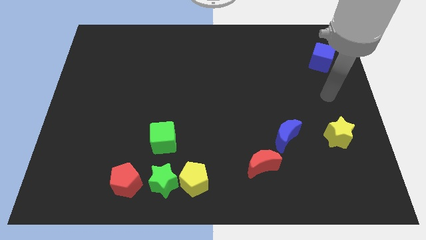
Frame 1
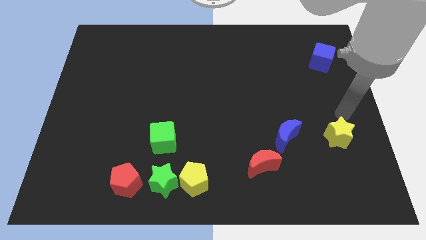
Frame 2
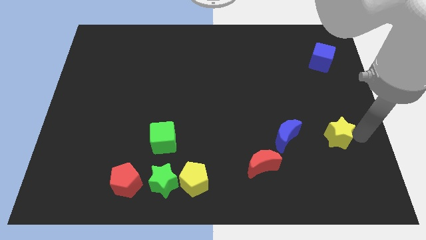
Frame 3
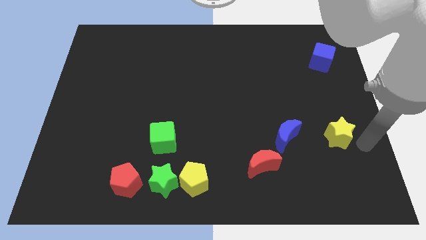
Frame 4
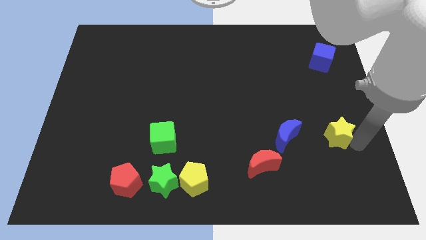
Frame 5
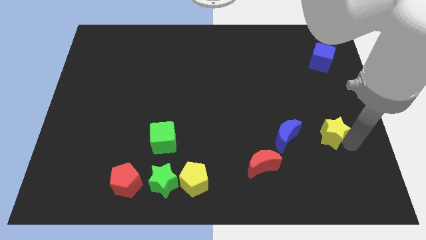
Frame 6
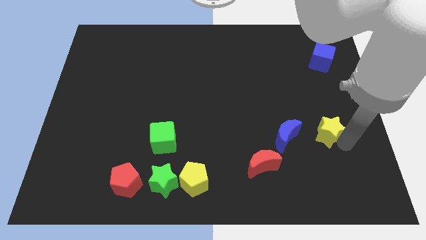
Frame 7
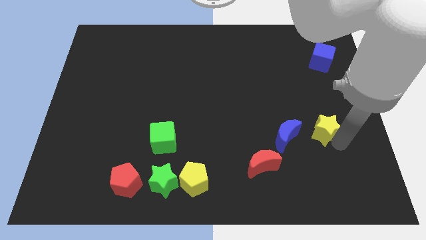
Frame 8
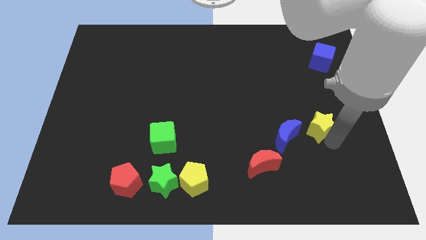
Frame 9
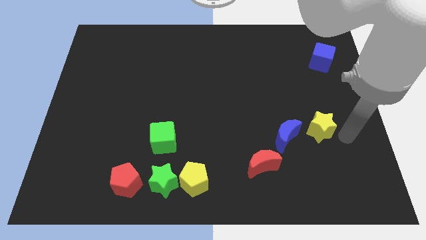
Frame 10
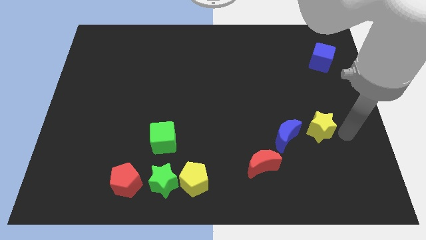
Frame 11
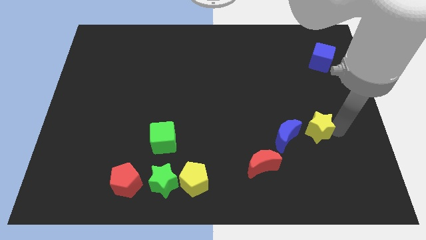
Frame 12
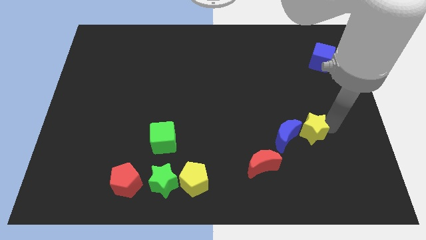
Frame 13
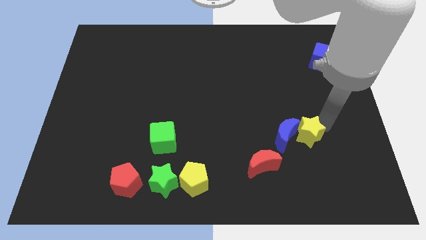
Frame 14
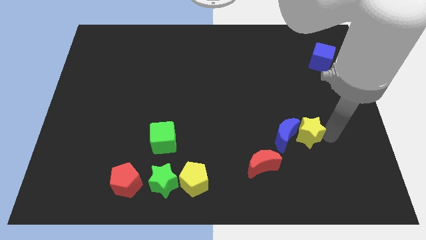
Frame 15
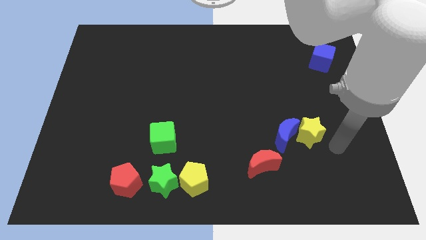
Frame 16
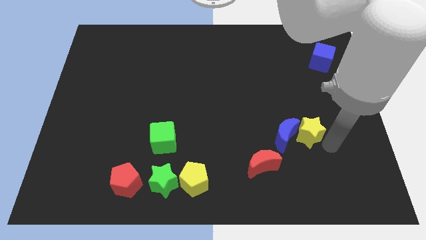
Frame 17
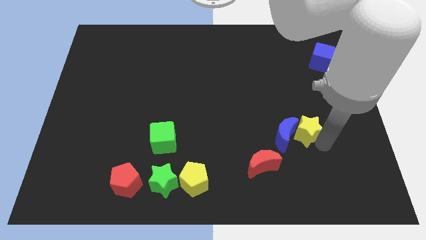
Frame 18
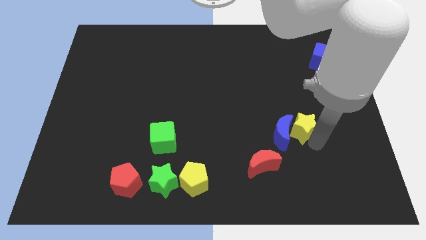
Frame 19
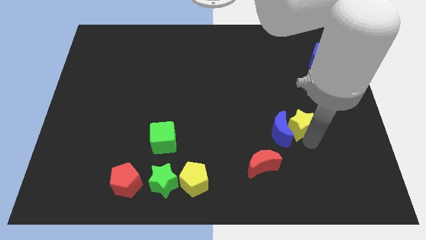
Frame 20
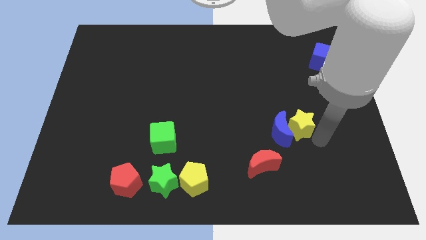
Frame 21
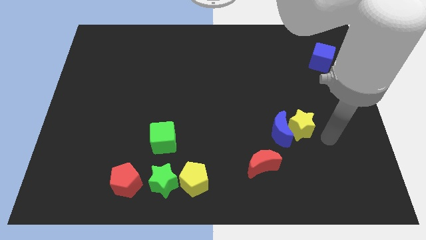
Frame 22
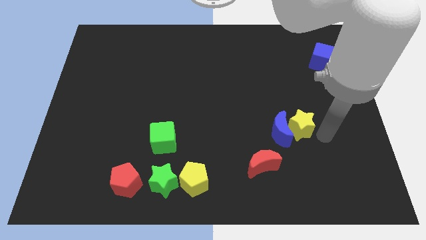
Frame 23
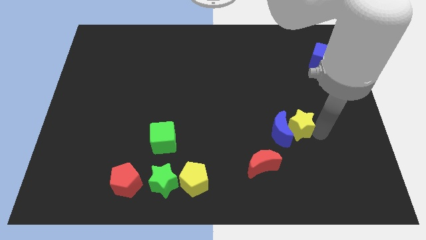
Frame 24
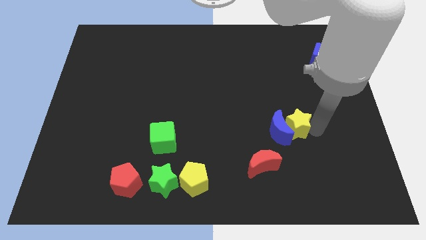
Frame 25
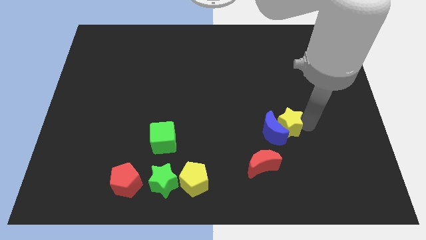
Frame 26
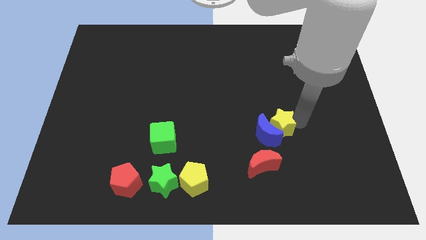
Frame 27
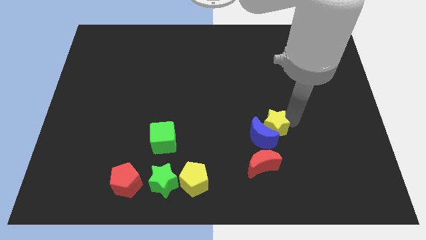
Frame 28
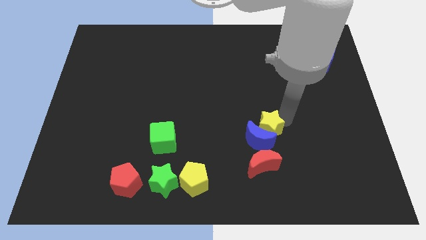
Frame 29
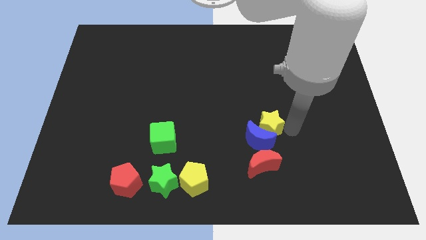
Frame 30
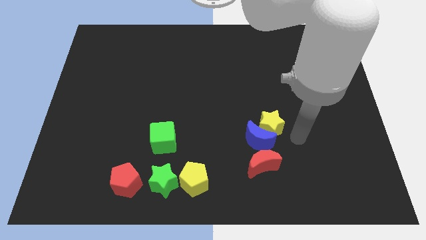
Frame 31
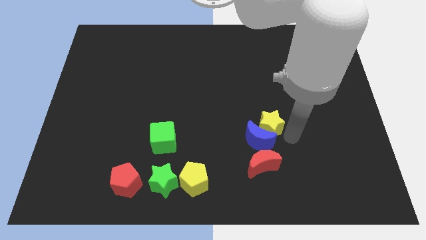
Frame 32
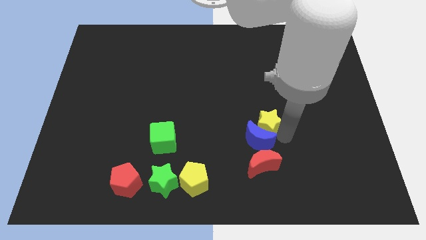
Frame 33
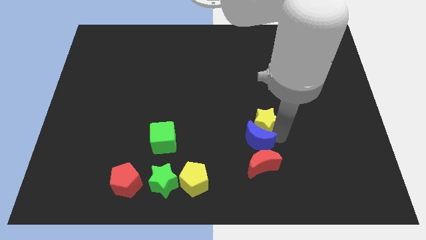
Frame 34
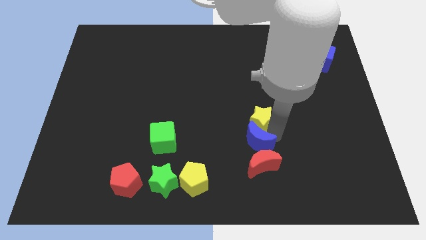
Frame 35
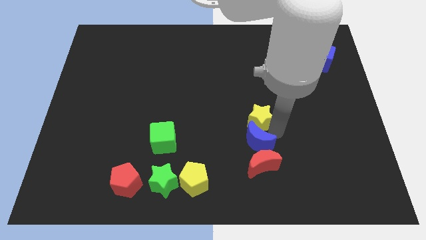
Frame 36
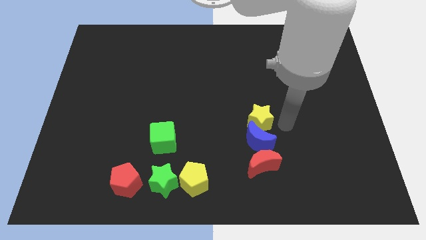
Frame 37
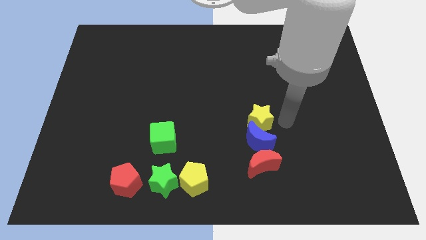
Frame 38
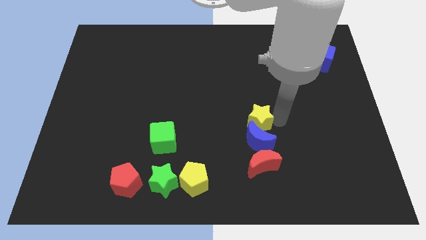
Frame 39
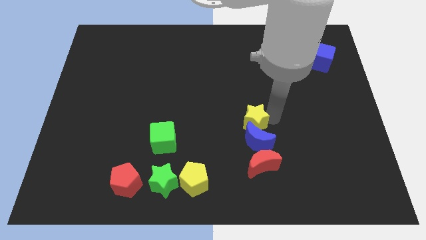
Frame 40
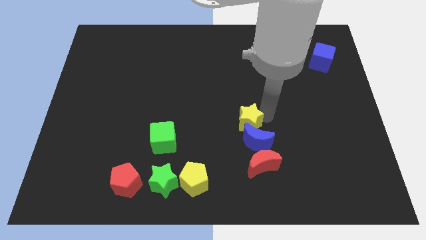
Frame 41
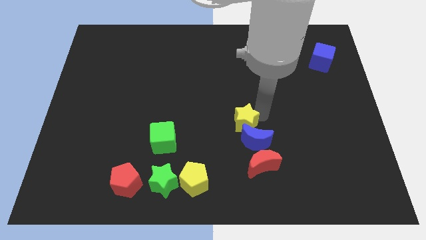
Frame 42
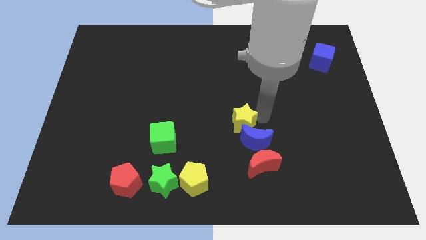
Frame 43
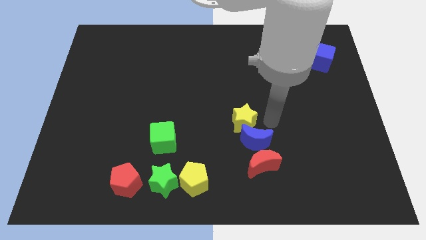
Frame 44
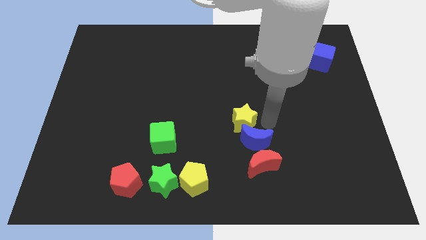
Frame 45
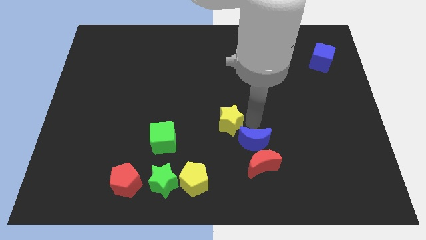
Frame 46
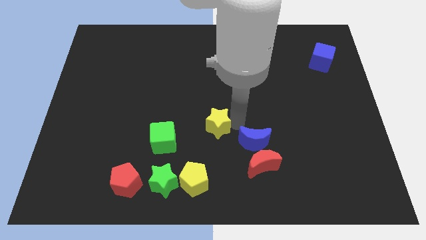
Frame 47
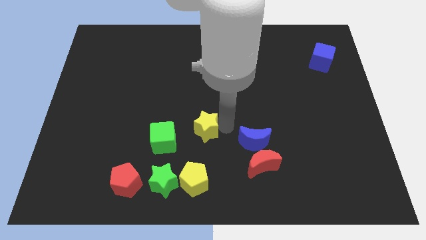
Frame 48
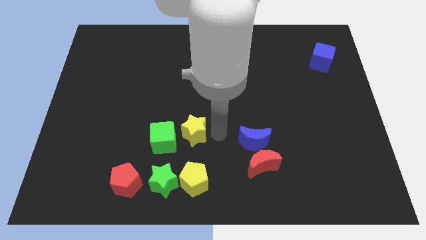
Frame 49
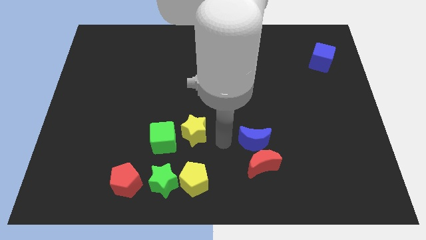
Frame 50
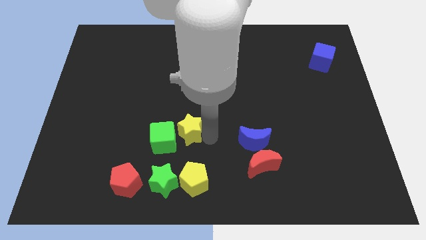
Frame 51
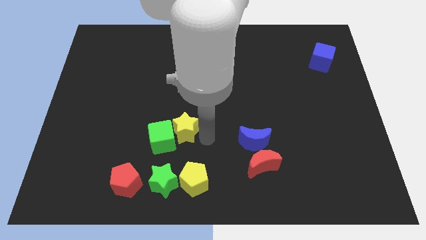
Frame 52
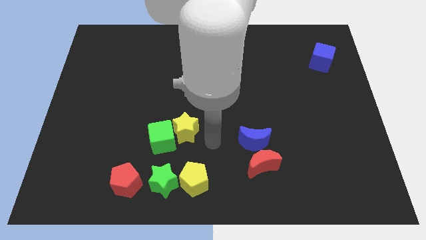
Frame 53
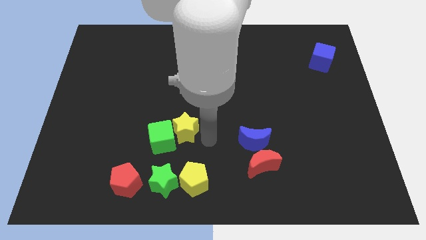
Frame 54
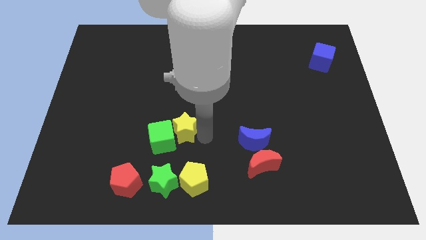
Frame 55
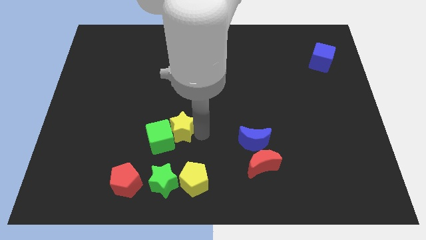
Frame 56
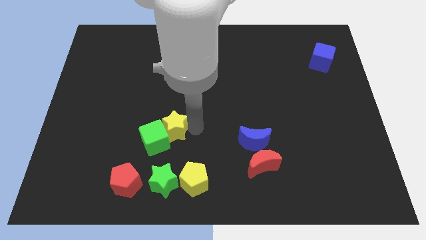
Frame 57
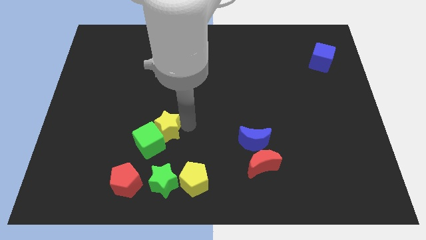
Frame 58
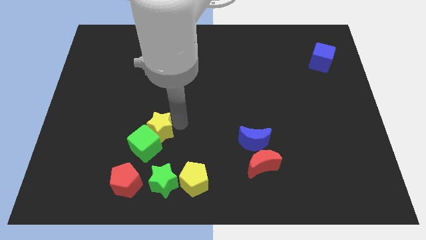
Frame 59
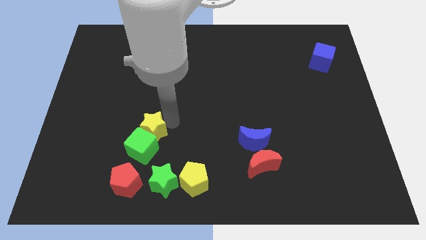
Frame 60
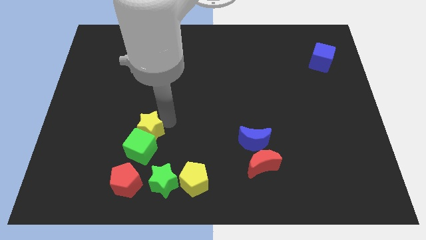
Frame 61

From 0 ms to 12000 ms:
slide the yellow star to the top left of the green cube

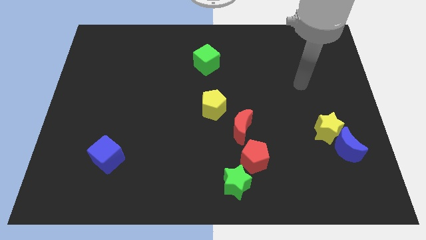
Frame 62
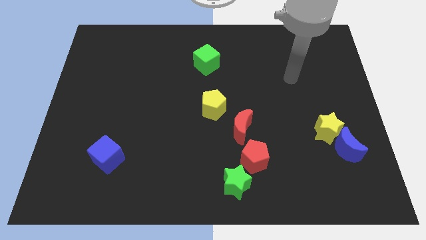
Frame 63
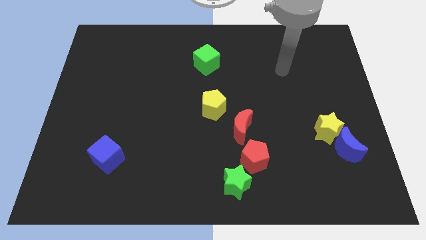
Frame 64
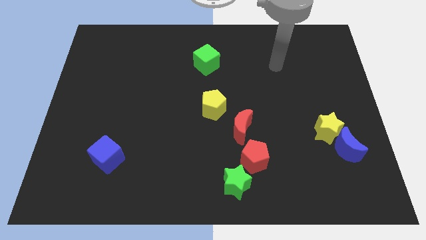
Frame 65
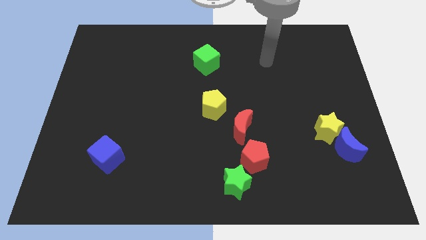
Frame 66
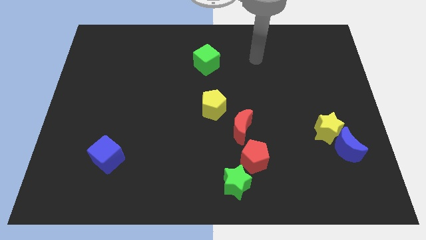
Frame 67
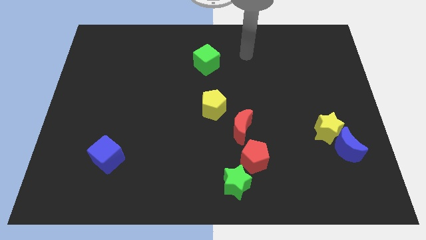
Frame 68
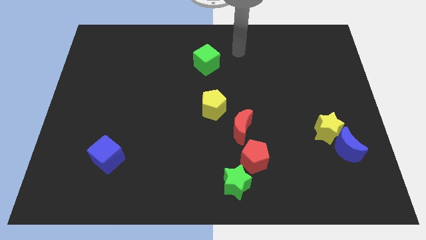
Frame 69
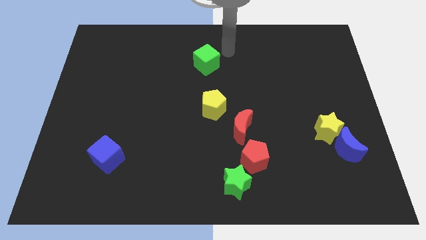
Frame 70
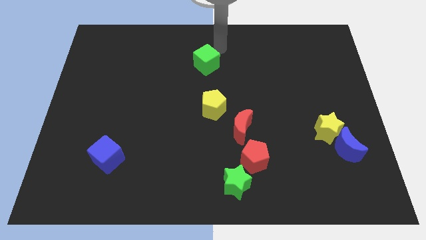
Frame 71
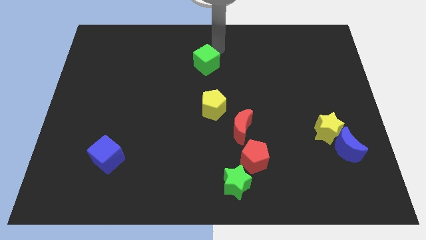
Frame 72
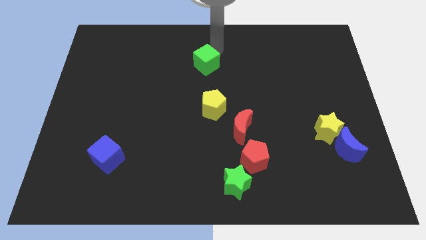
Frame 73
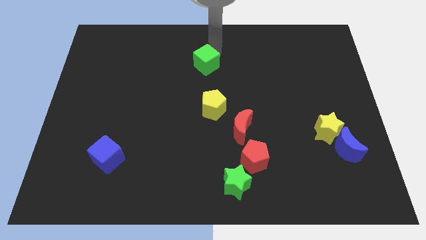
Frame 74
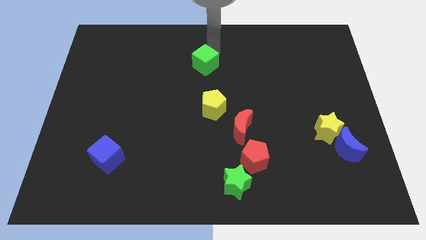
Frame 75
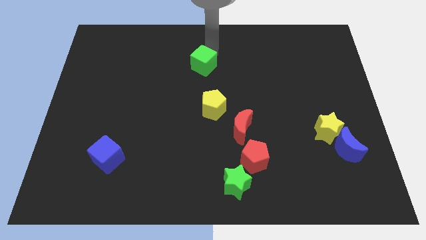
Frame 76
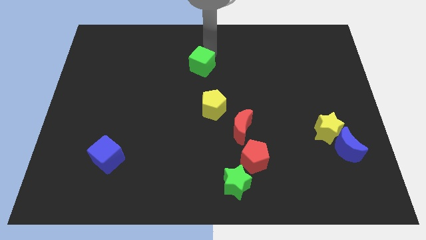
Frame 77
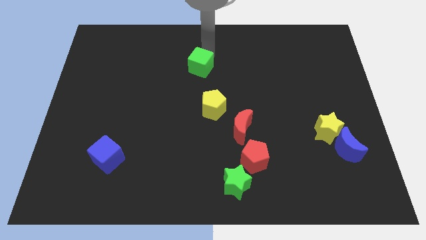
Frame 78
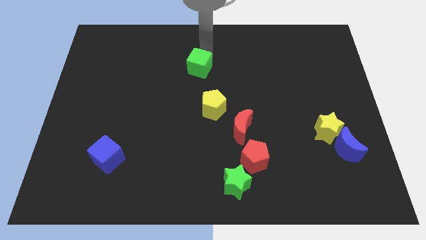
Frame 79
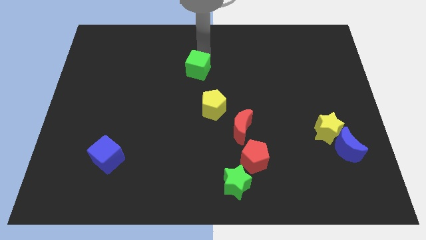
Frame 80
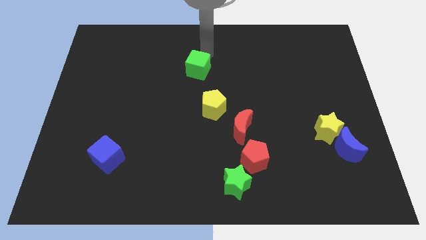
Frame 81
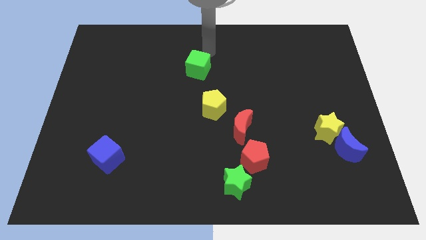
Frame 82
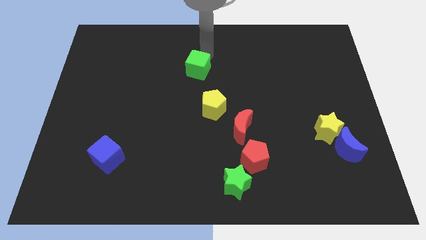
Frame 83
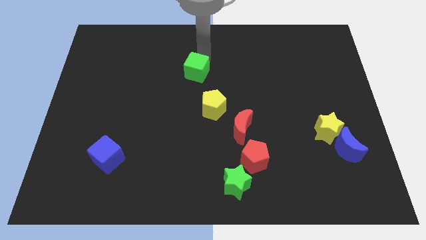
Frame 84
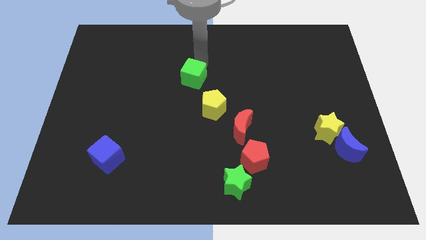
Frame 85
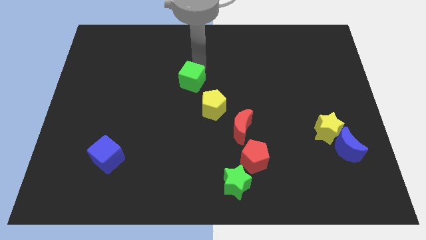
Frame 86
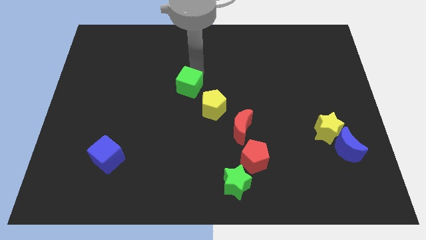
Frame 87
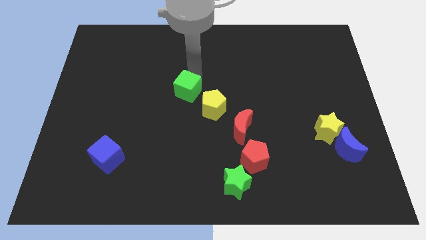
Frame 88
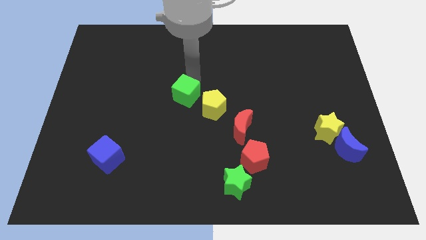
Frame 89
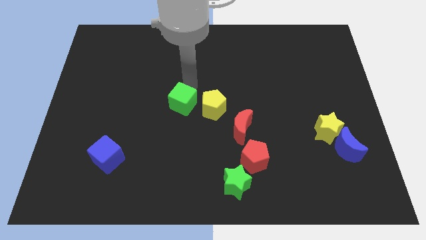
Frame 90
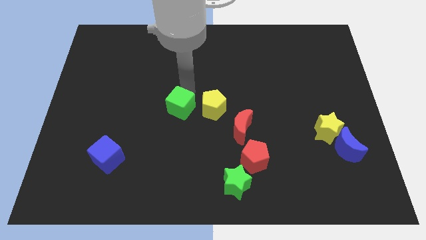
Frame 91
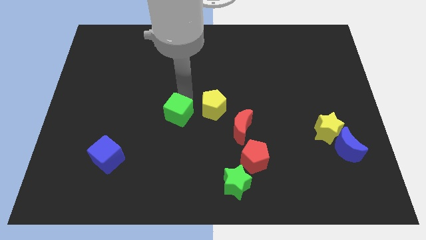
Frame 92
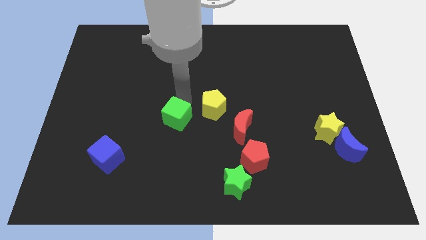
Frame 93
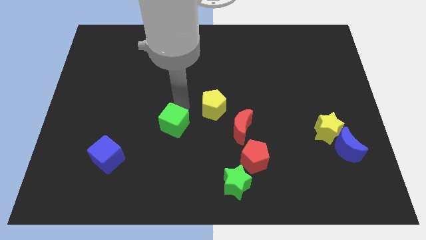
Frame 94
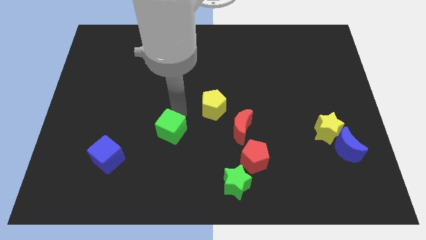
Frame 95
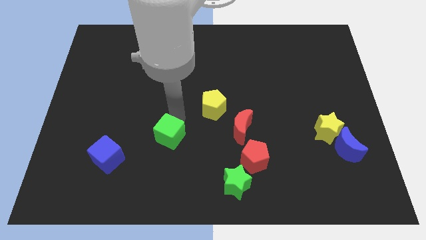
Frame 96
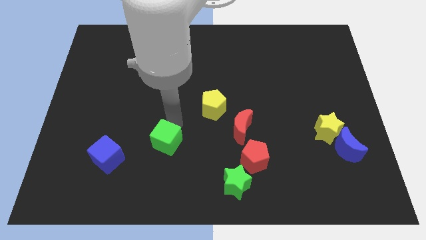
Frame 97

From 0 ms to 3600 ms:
slide the green cube to the right side of the blue cube
